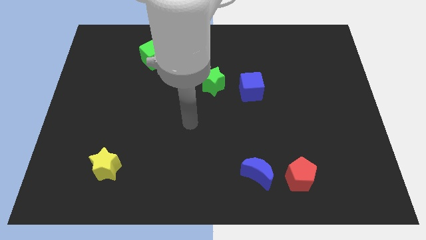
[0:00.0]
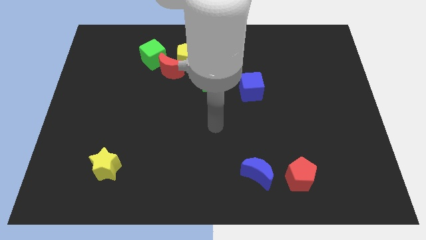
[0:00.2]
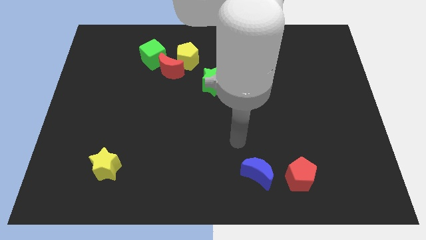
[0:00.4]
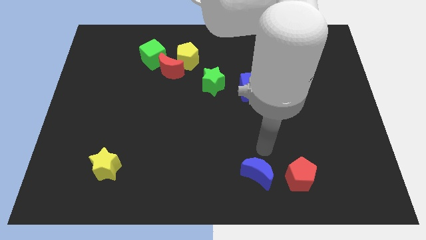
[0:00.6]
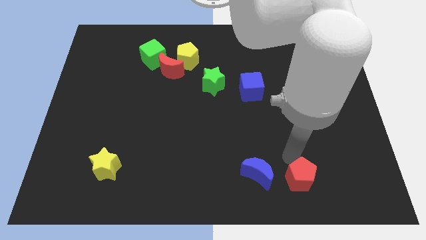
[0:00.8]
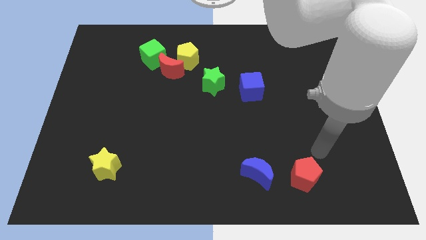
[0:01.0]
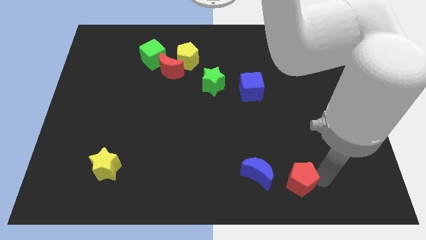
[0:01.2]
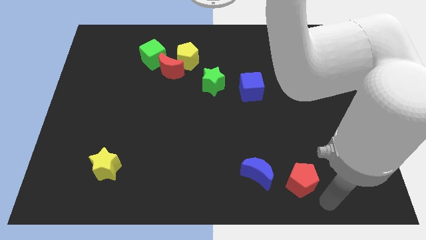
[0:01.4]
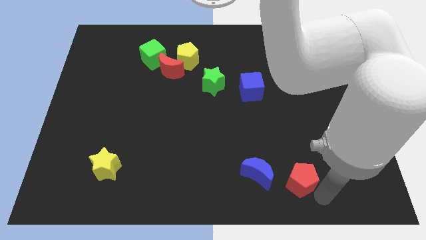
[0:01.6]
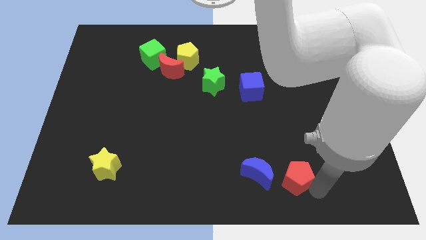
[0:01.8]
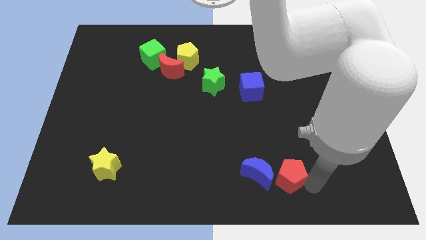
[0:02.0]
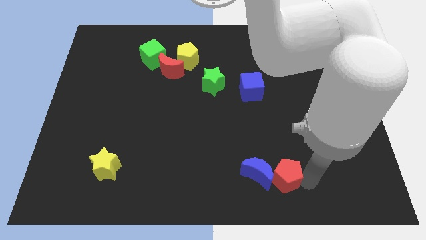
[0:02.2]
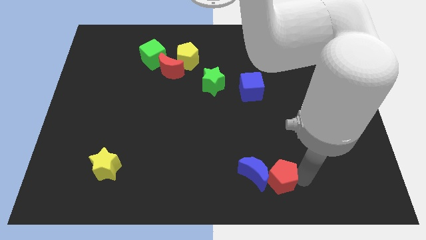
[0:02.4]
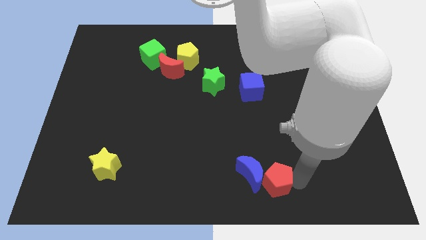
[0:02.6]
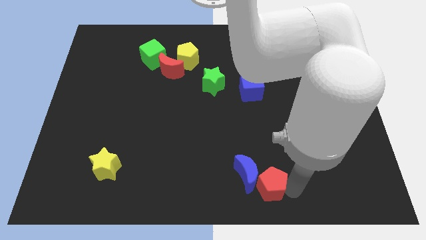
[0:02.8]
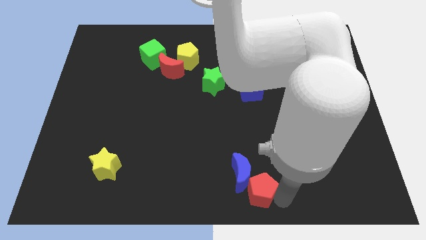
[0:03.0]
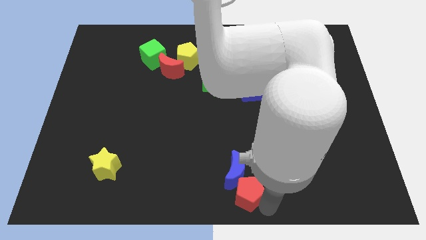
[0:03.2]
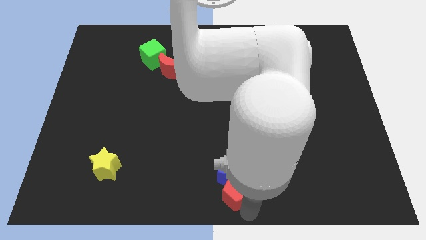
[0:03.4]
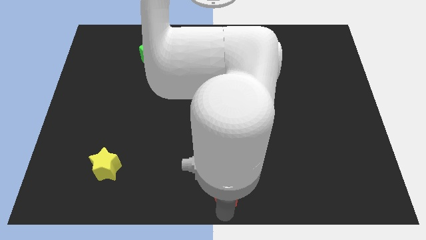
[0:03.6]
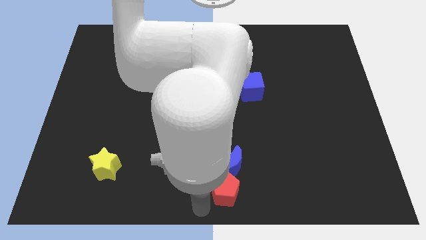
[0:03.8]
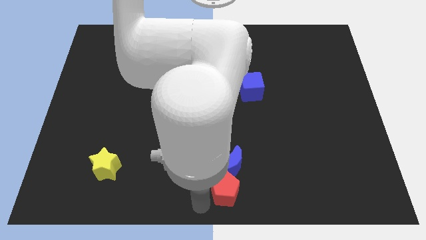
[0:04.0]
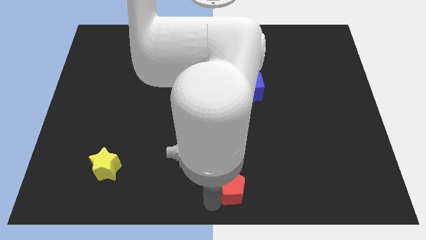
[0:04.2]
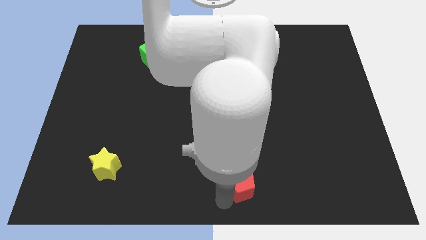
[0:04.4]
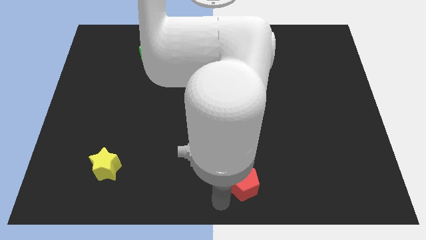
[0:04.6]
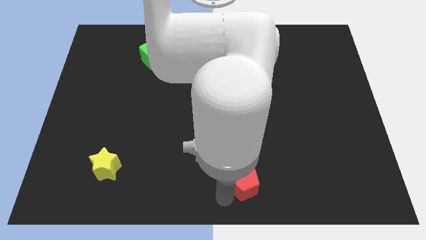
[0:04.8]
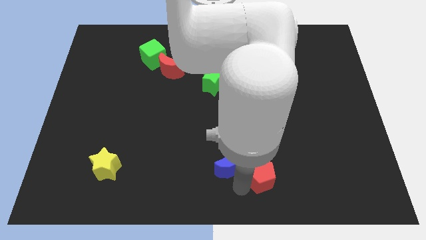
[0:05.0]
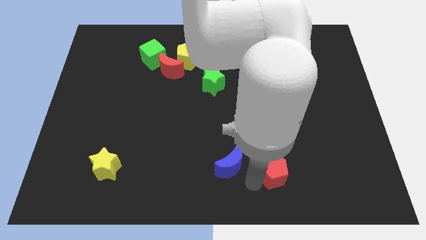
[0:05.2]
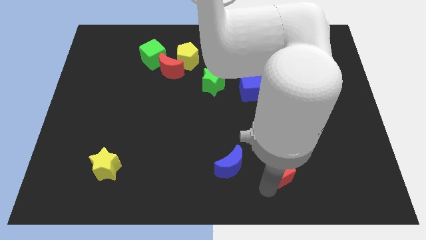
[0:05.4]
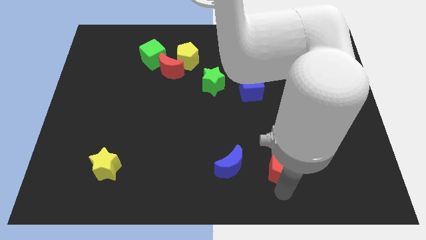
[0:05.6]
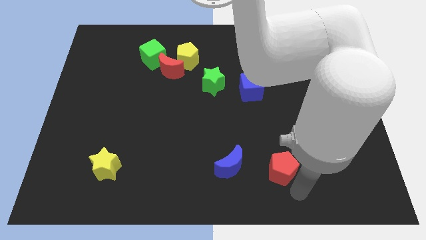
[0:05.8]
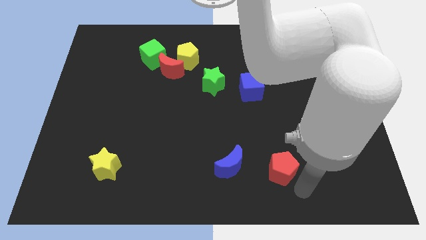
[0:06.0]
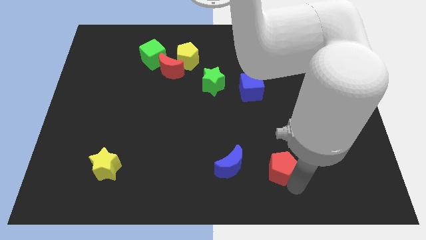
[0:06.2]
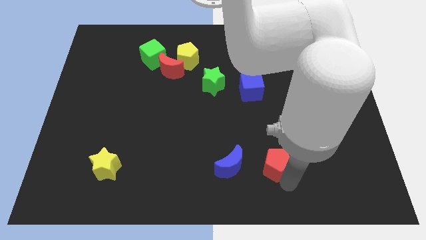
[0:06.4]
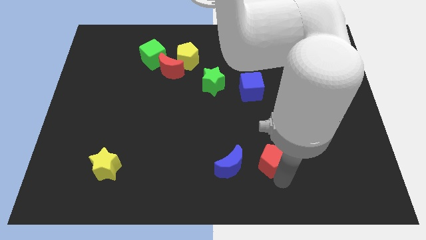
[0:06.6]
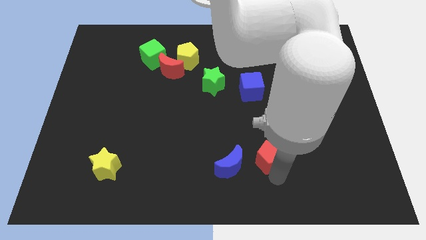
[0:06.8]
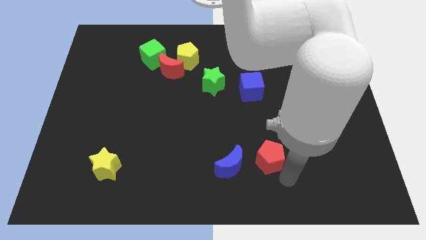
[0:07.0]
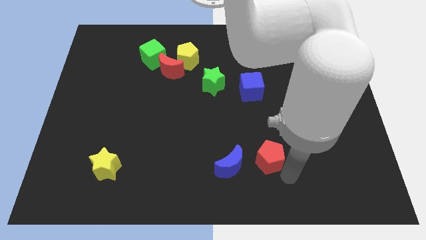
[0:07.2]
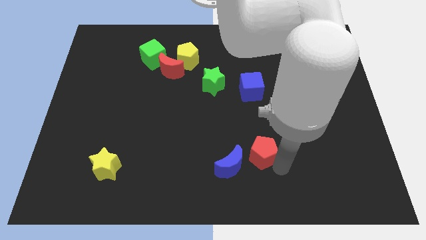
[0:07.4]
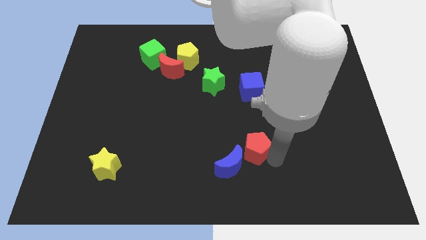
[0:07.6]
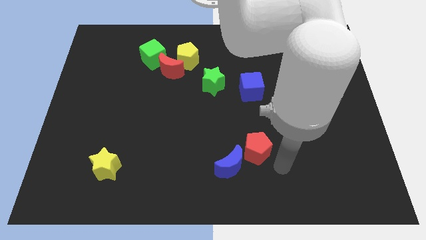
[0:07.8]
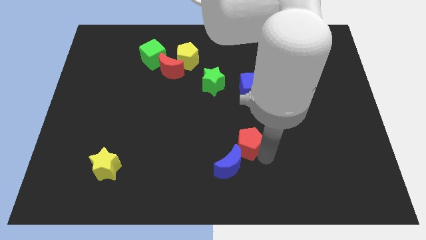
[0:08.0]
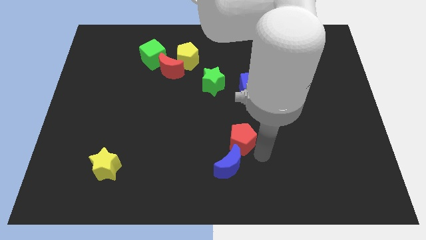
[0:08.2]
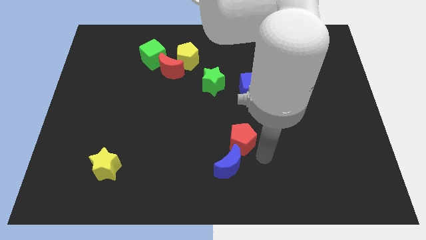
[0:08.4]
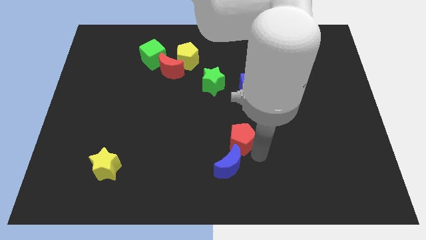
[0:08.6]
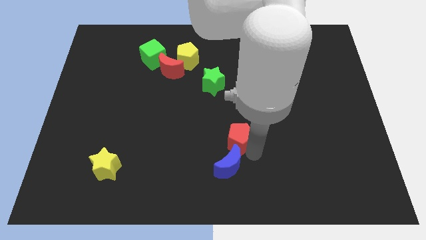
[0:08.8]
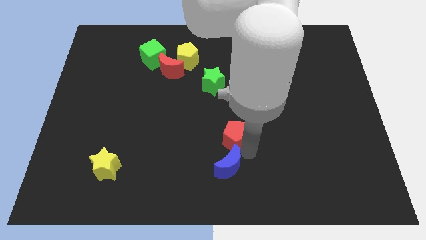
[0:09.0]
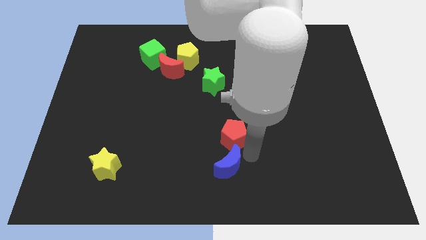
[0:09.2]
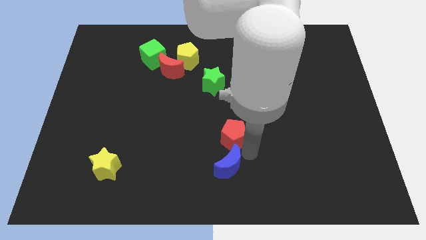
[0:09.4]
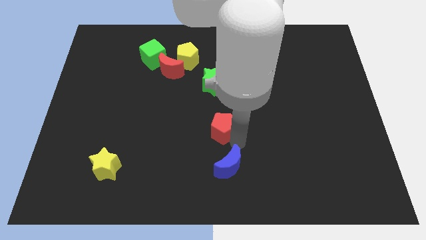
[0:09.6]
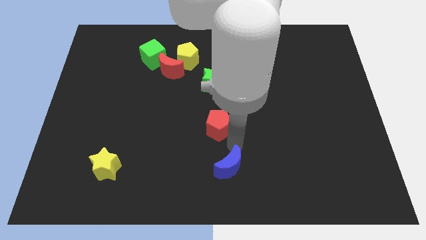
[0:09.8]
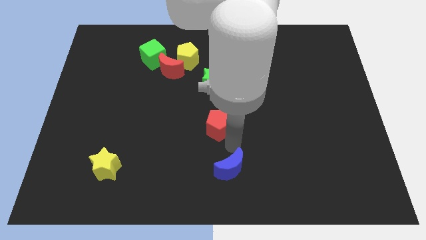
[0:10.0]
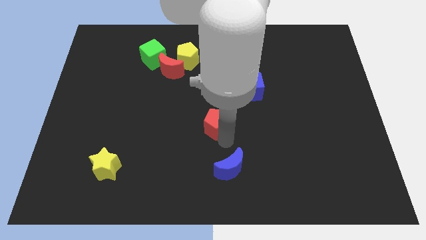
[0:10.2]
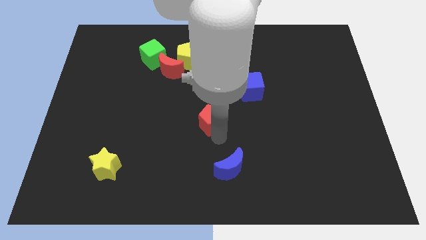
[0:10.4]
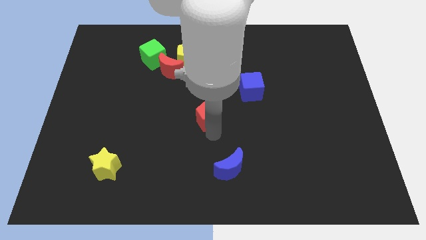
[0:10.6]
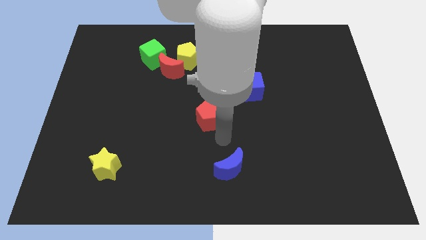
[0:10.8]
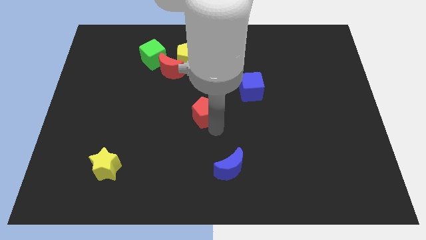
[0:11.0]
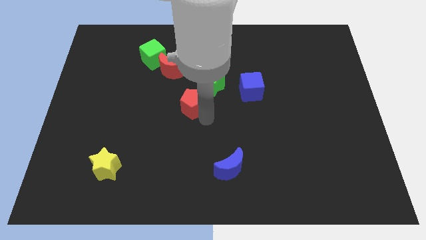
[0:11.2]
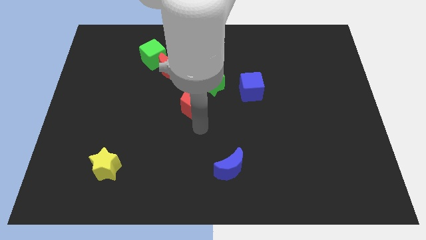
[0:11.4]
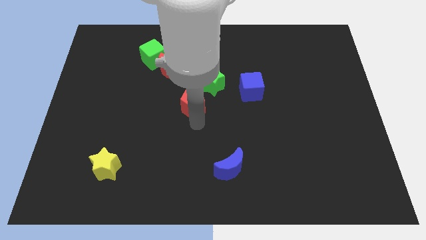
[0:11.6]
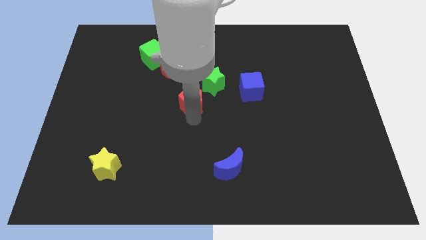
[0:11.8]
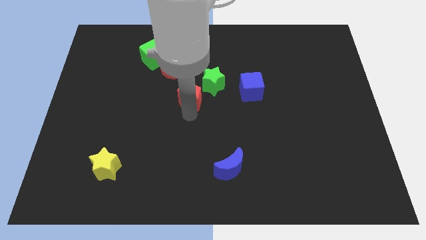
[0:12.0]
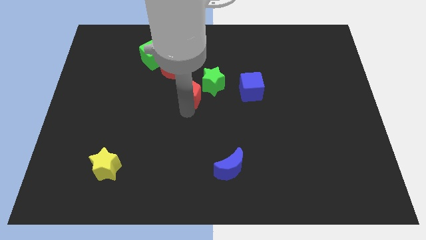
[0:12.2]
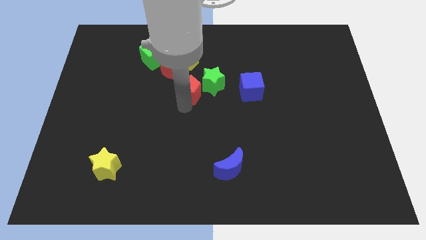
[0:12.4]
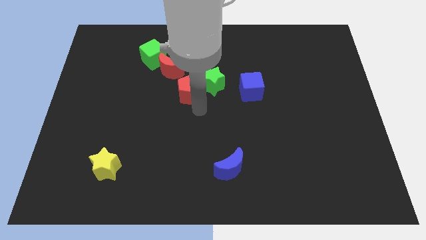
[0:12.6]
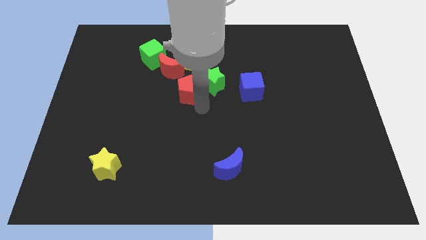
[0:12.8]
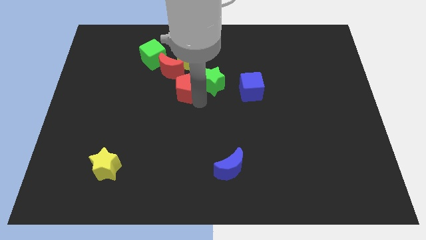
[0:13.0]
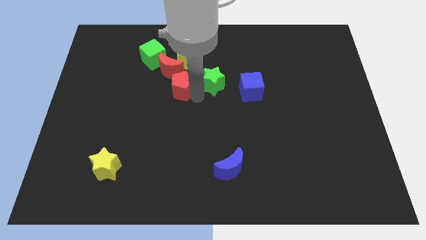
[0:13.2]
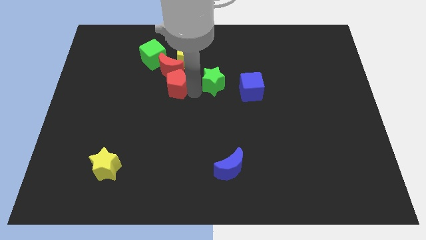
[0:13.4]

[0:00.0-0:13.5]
move the red pentagon close to the red moon
